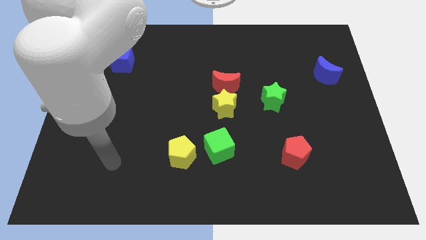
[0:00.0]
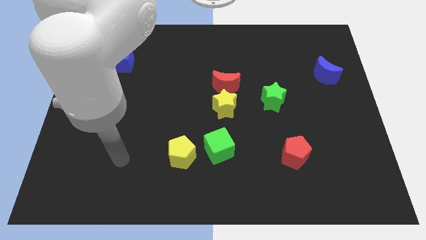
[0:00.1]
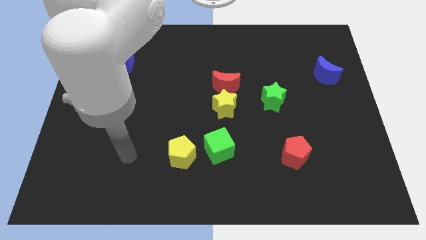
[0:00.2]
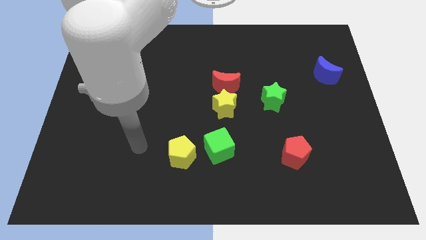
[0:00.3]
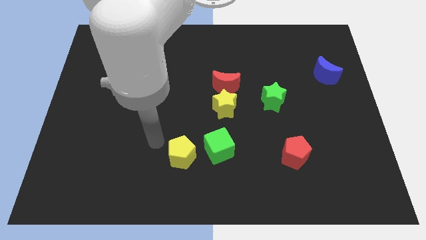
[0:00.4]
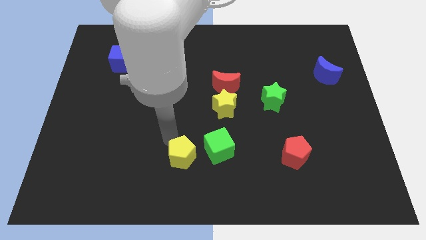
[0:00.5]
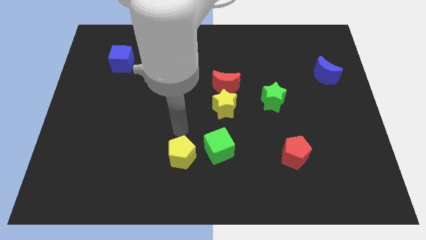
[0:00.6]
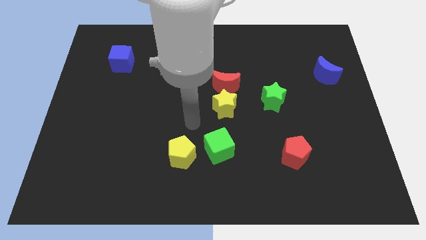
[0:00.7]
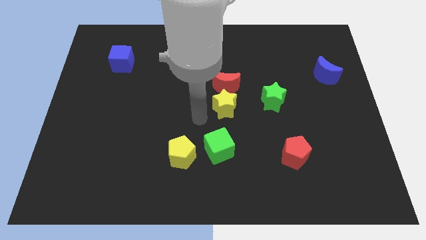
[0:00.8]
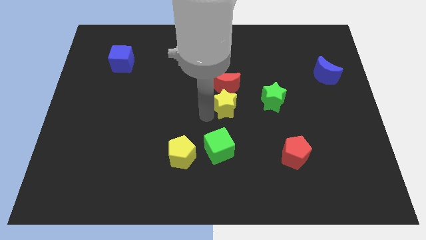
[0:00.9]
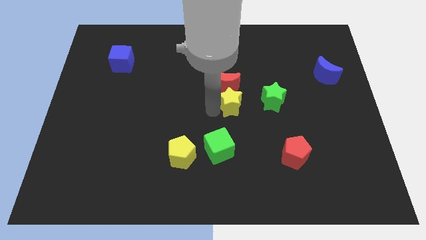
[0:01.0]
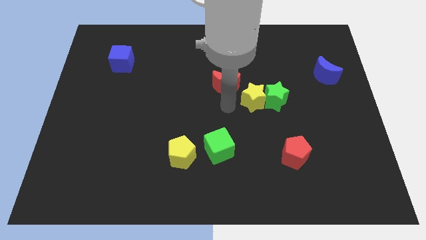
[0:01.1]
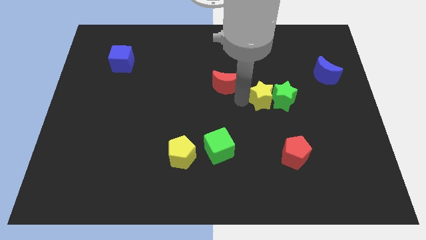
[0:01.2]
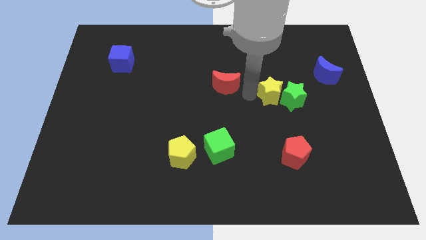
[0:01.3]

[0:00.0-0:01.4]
separate the red moon from the yellow star

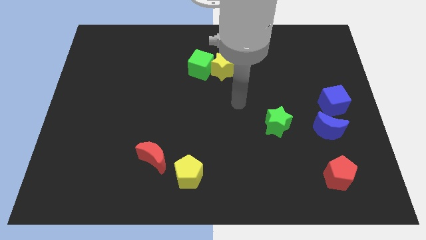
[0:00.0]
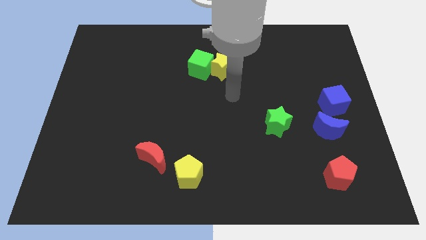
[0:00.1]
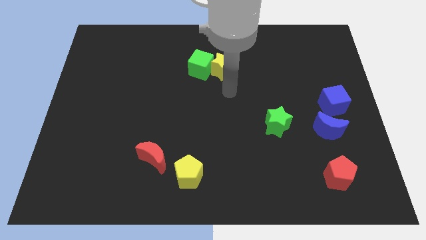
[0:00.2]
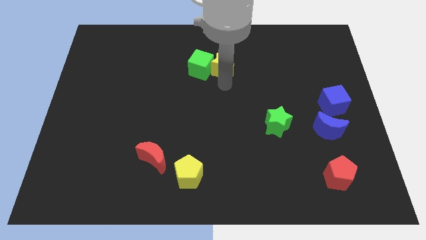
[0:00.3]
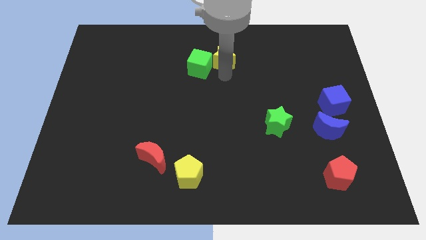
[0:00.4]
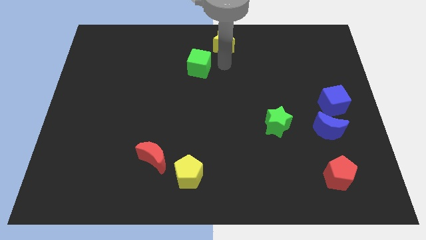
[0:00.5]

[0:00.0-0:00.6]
move the green cube away from the yellow star

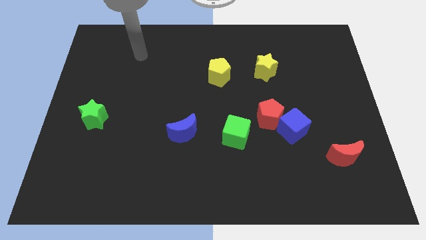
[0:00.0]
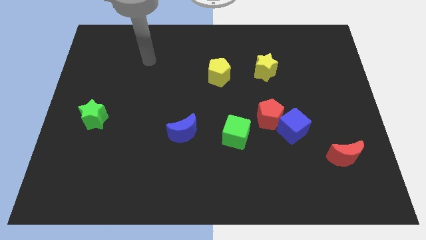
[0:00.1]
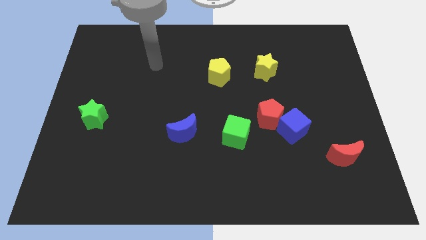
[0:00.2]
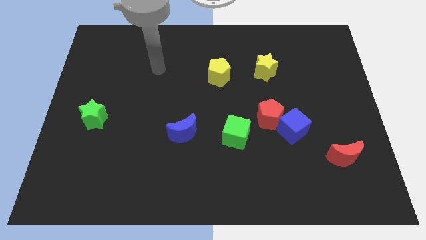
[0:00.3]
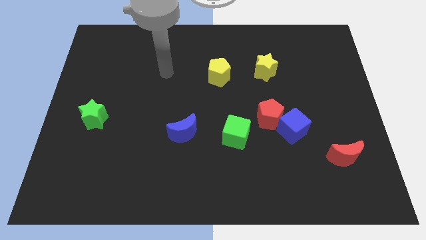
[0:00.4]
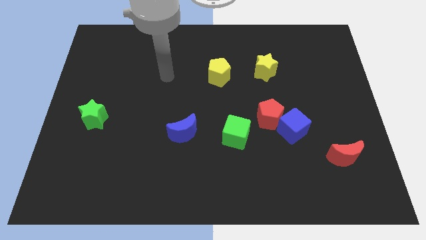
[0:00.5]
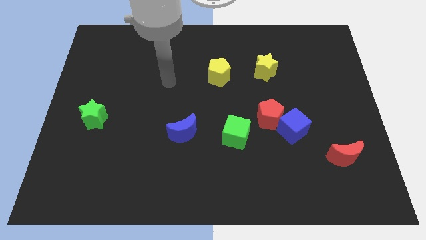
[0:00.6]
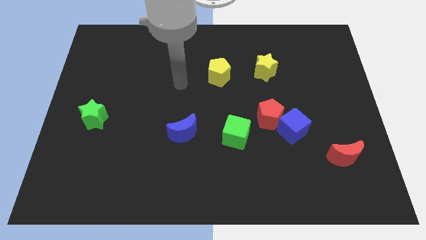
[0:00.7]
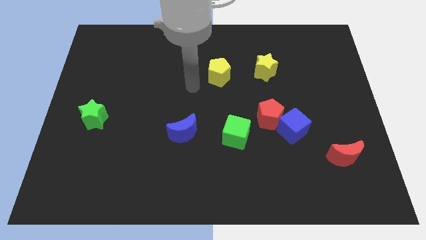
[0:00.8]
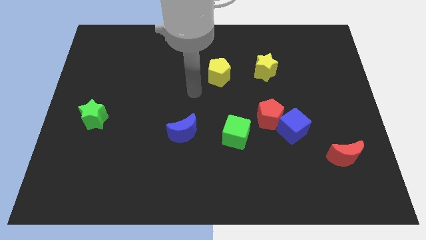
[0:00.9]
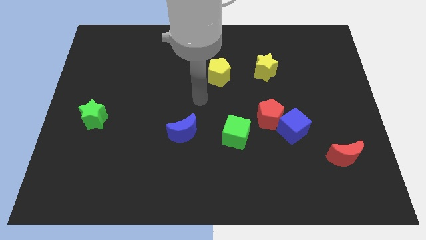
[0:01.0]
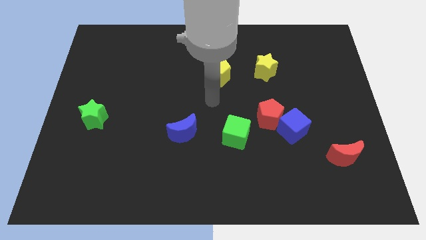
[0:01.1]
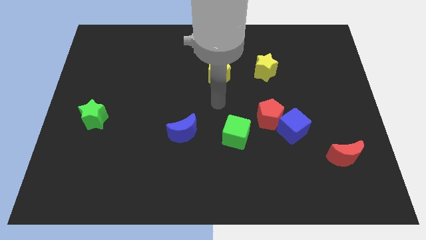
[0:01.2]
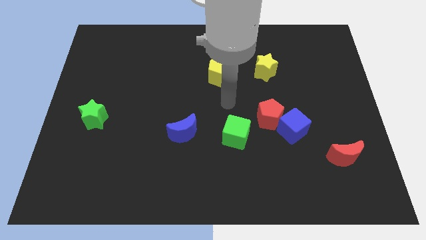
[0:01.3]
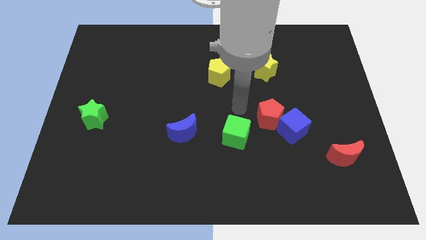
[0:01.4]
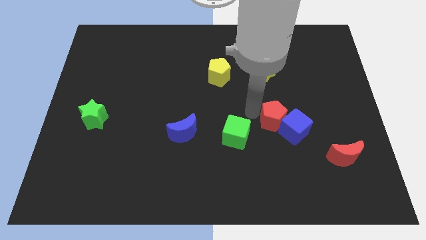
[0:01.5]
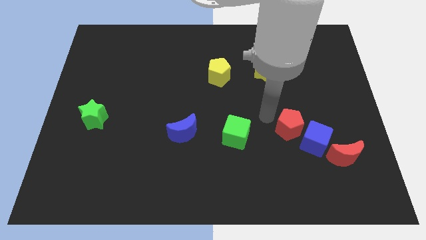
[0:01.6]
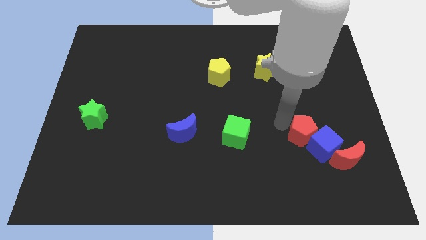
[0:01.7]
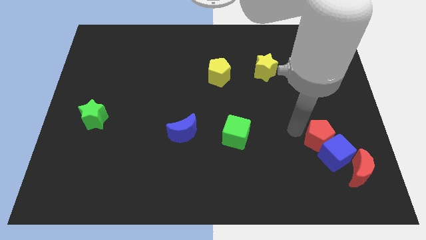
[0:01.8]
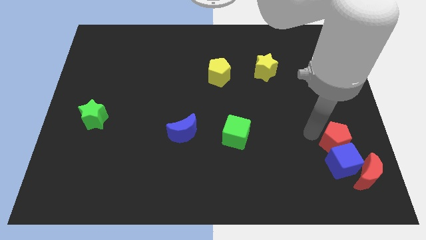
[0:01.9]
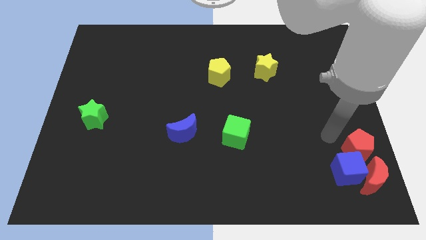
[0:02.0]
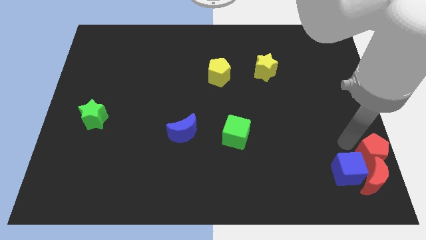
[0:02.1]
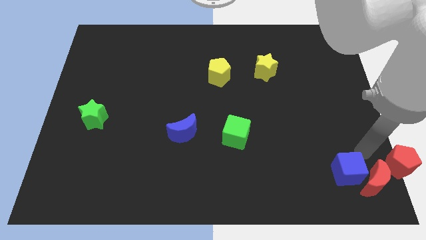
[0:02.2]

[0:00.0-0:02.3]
pull the blue cube apart from the red pentagon

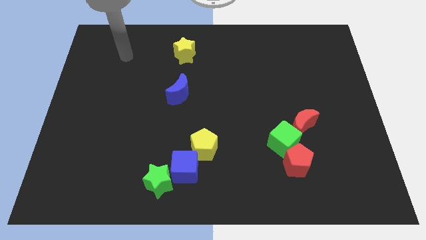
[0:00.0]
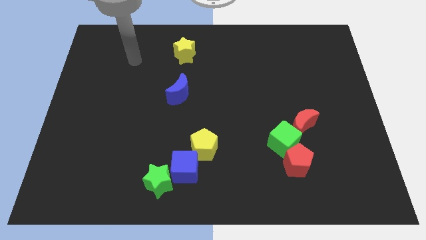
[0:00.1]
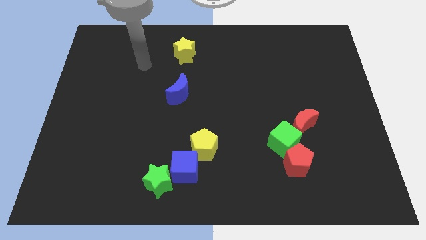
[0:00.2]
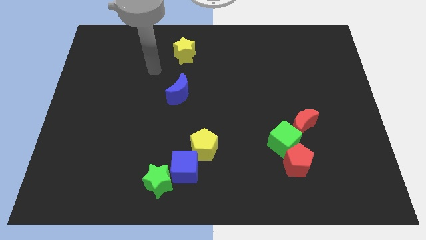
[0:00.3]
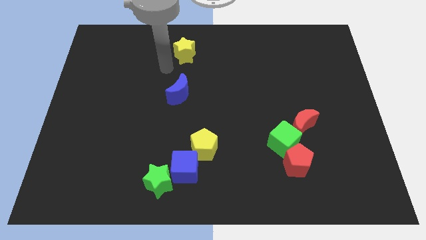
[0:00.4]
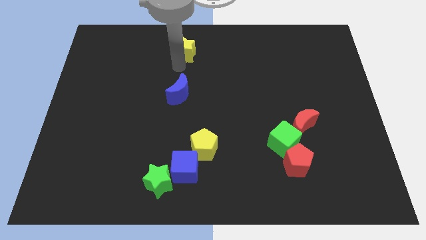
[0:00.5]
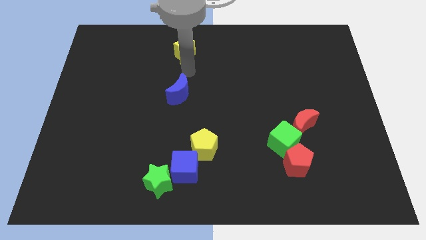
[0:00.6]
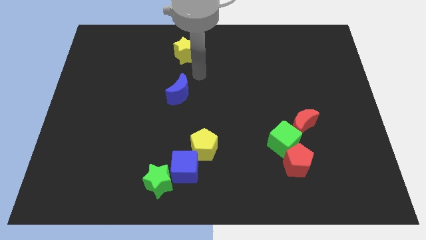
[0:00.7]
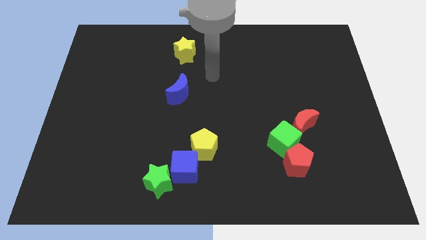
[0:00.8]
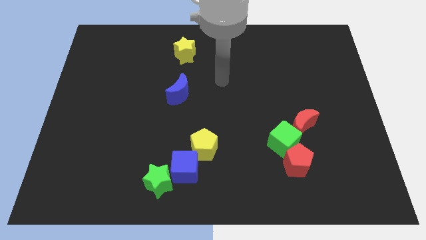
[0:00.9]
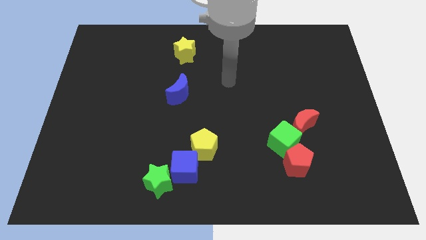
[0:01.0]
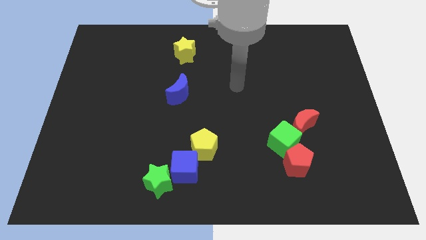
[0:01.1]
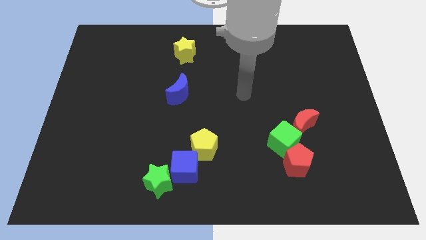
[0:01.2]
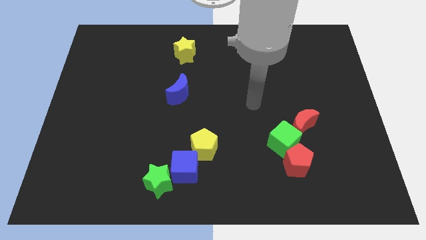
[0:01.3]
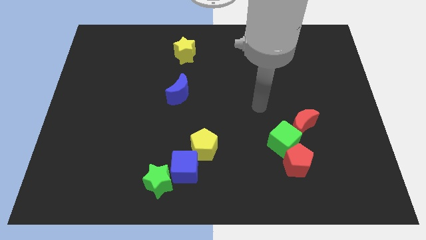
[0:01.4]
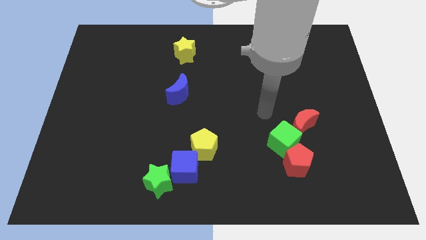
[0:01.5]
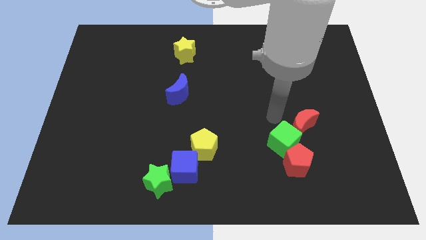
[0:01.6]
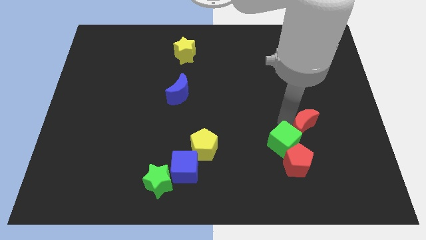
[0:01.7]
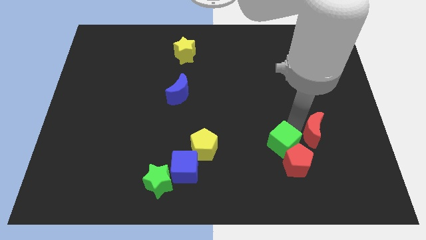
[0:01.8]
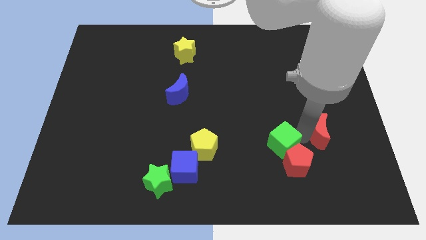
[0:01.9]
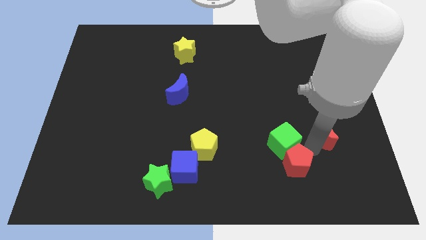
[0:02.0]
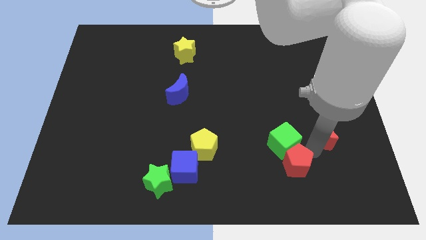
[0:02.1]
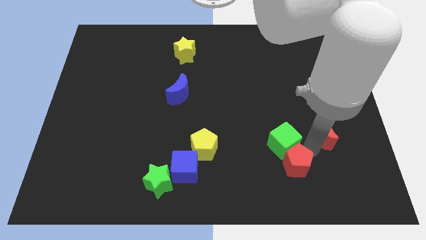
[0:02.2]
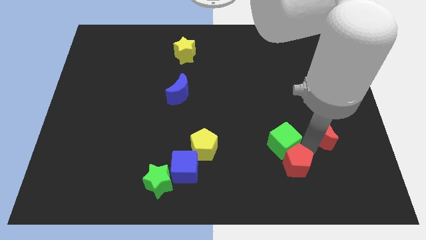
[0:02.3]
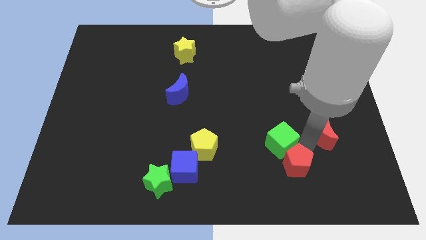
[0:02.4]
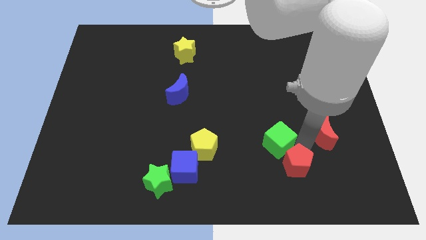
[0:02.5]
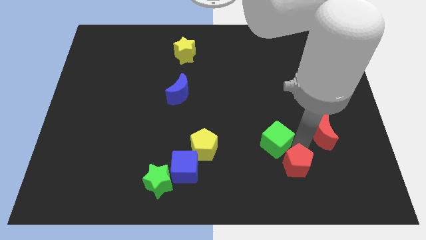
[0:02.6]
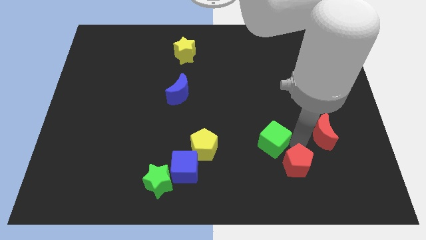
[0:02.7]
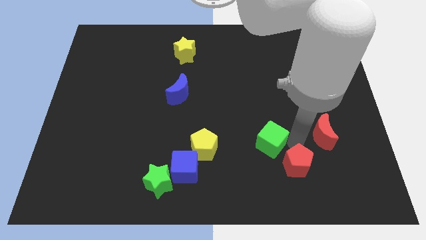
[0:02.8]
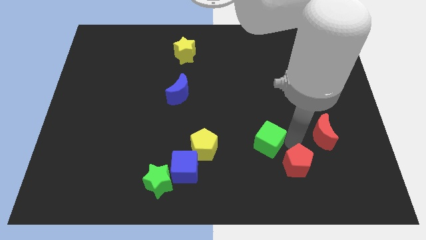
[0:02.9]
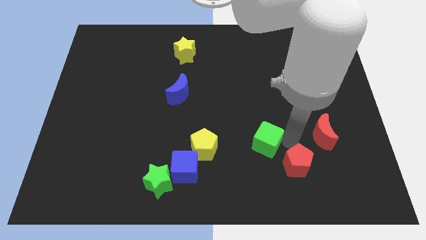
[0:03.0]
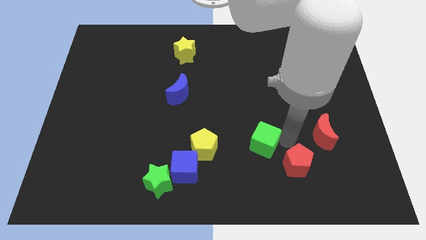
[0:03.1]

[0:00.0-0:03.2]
move the green cube away from the red pentagon and red moon

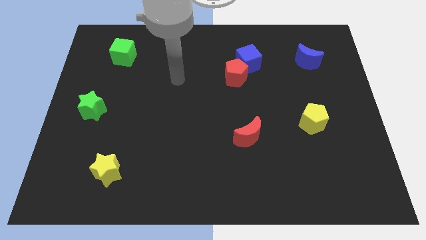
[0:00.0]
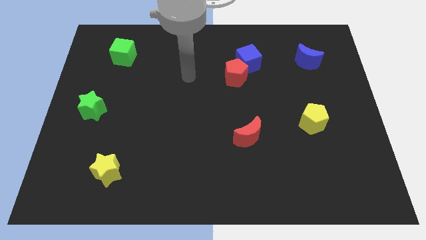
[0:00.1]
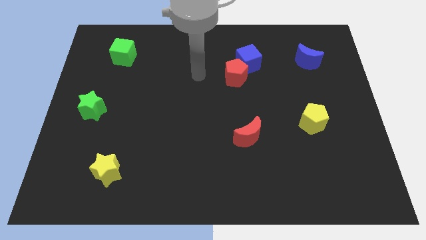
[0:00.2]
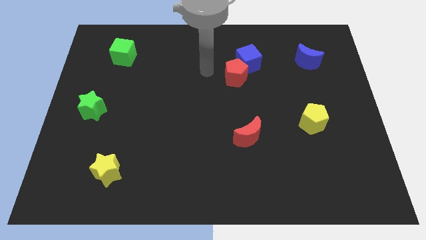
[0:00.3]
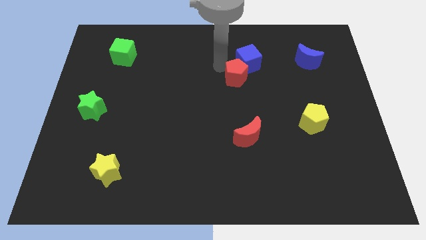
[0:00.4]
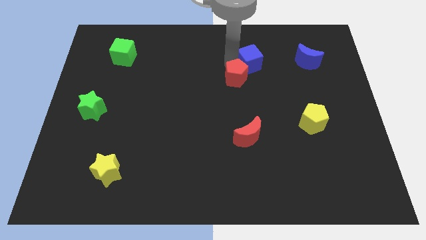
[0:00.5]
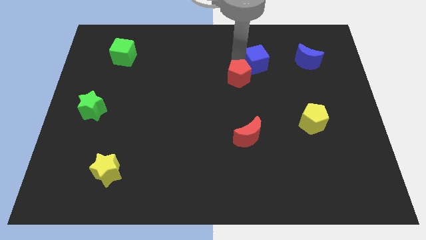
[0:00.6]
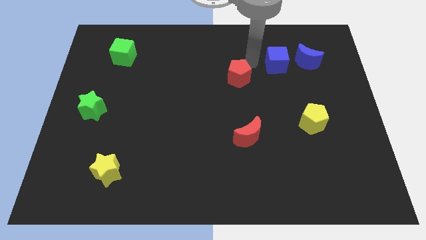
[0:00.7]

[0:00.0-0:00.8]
separate the red pentagon from the blue cube

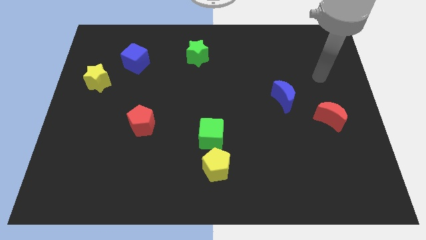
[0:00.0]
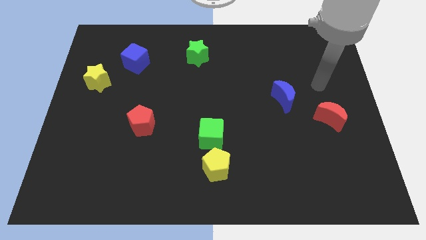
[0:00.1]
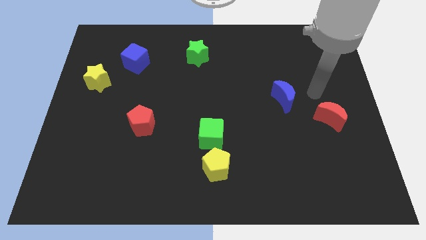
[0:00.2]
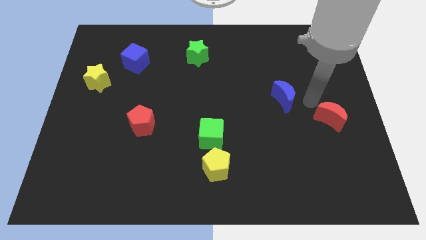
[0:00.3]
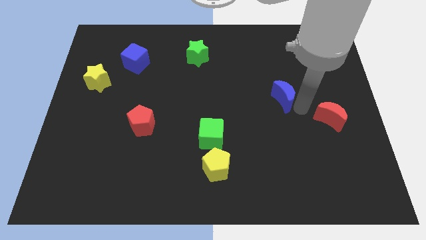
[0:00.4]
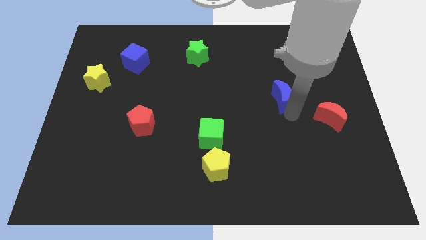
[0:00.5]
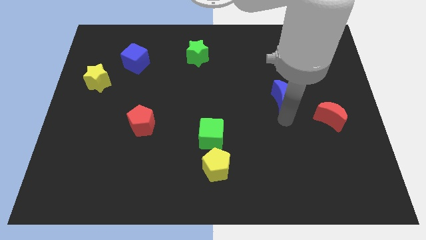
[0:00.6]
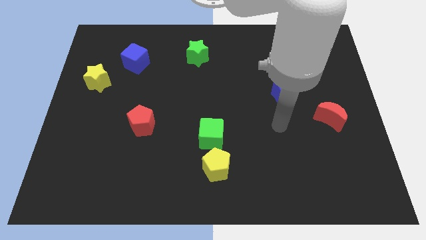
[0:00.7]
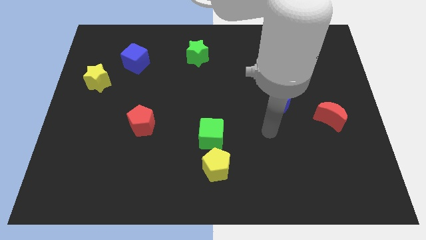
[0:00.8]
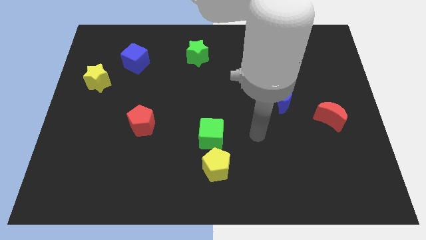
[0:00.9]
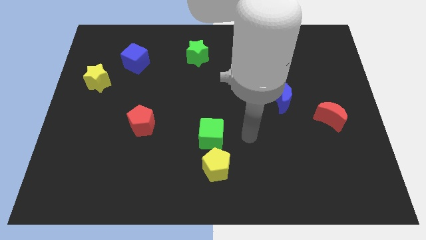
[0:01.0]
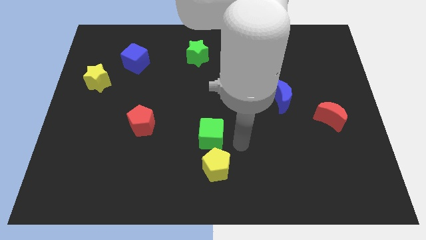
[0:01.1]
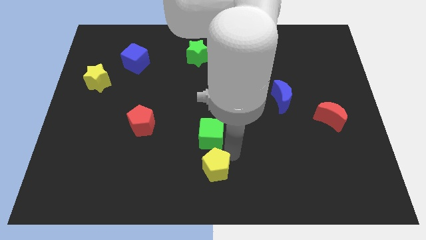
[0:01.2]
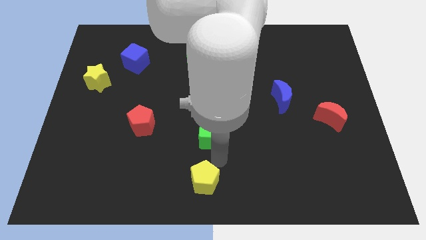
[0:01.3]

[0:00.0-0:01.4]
pull the green cube apart from the yellow pentagon
